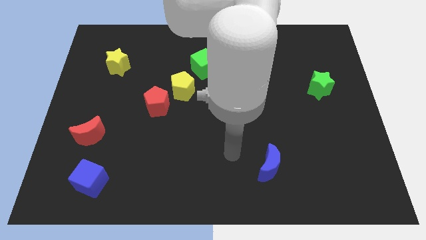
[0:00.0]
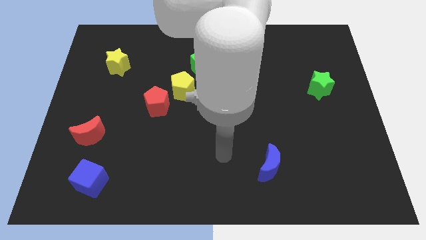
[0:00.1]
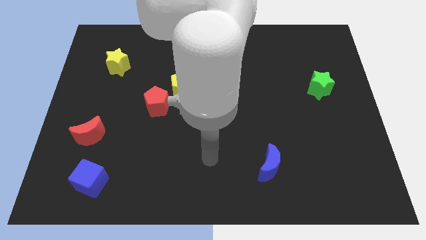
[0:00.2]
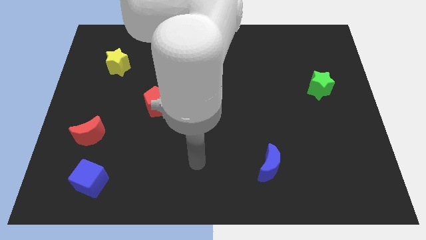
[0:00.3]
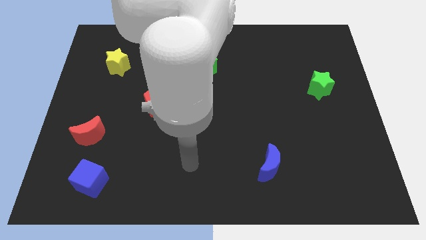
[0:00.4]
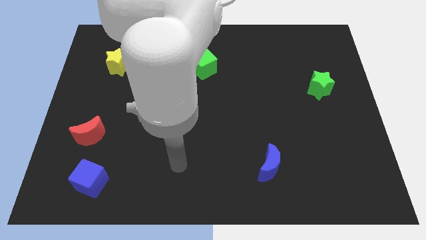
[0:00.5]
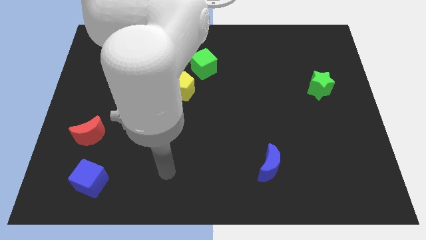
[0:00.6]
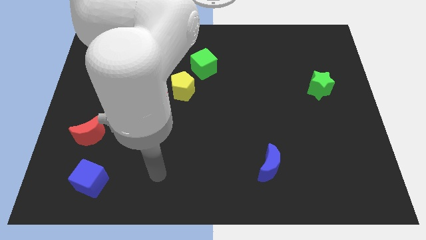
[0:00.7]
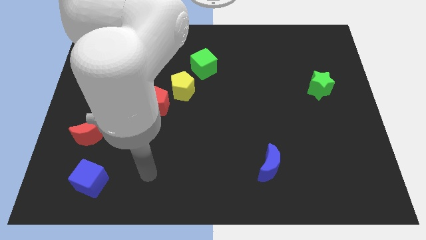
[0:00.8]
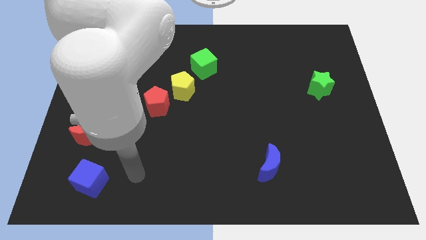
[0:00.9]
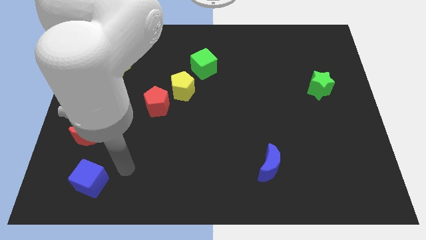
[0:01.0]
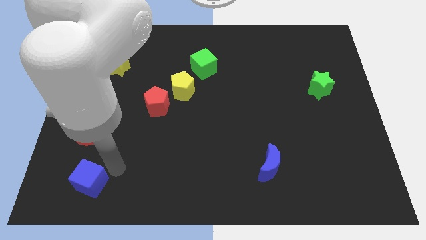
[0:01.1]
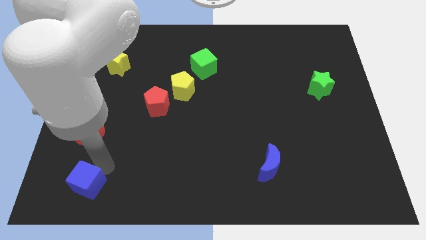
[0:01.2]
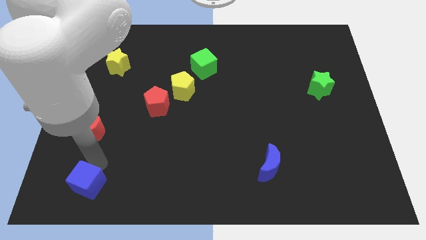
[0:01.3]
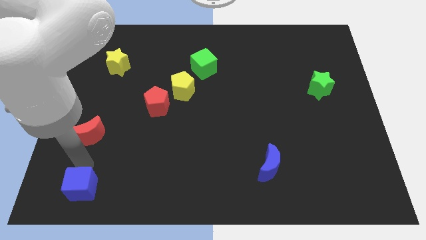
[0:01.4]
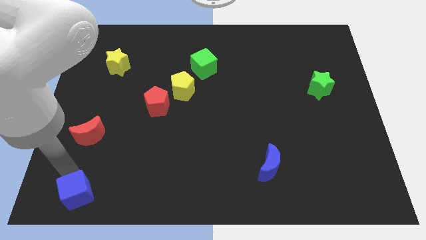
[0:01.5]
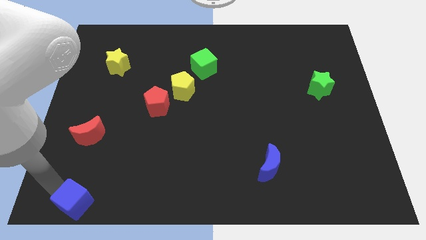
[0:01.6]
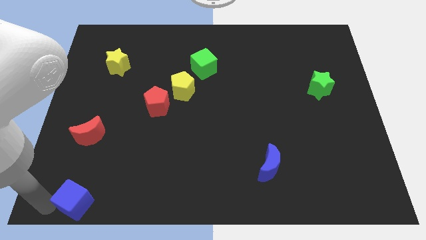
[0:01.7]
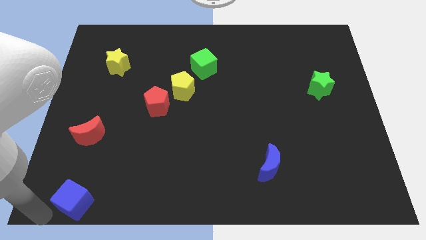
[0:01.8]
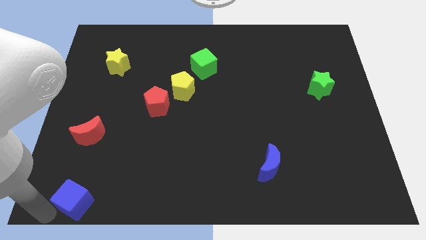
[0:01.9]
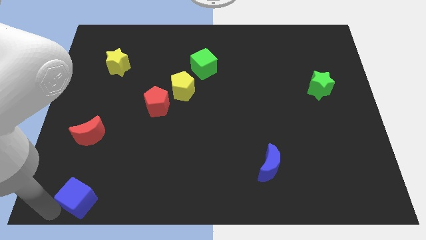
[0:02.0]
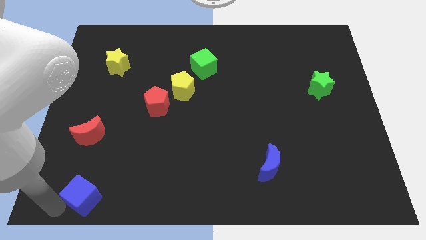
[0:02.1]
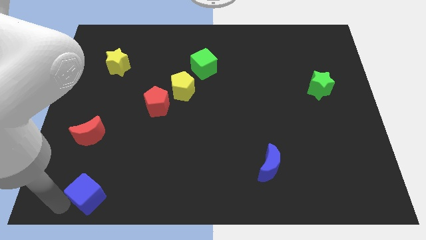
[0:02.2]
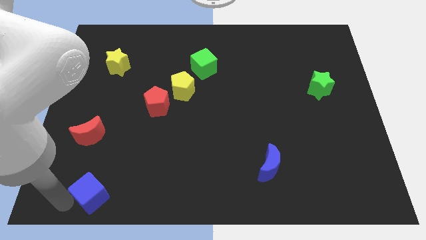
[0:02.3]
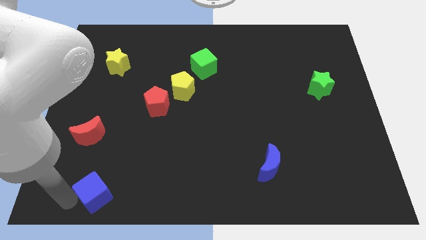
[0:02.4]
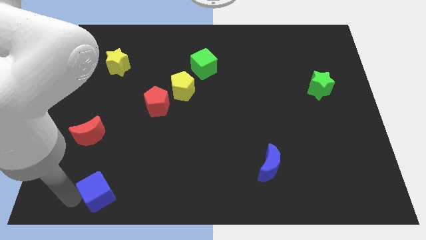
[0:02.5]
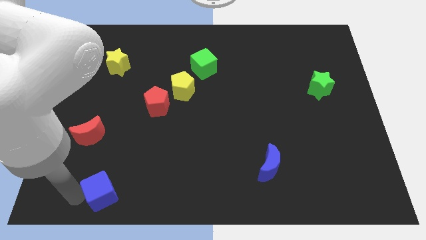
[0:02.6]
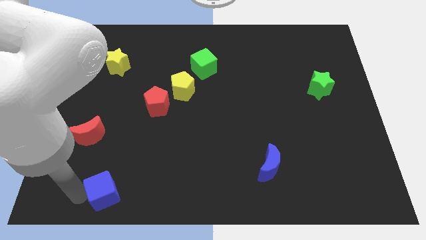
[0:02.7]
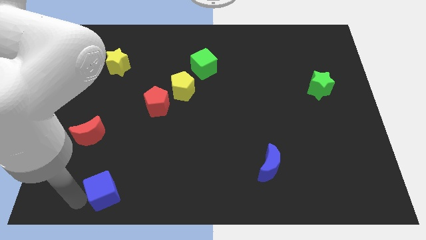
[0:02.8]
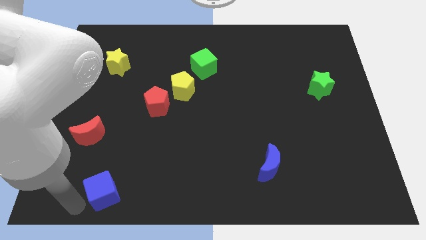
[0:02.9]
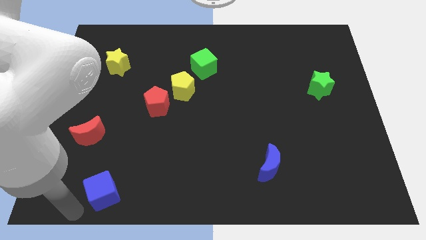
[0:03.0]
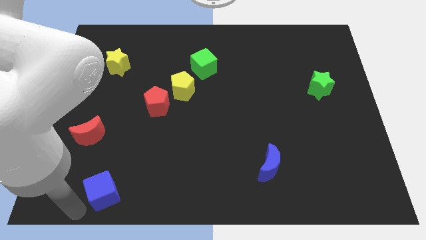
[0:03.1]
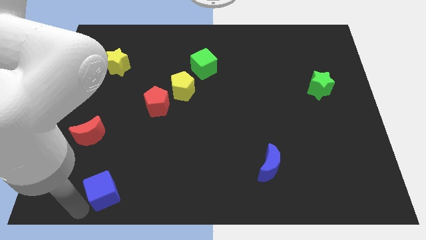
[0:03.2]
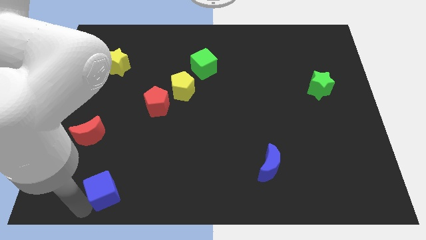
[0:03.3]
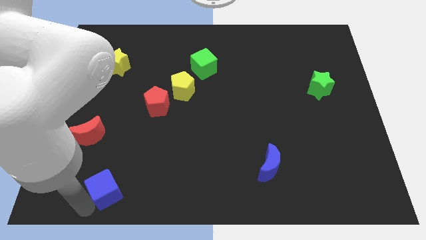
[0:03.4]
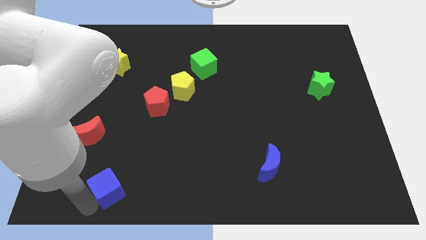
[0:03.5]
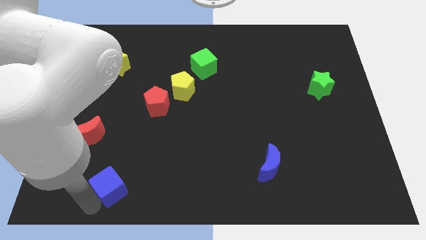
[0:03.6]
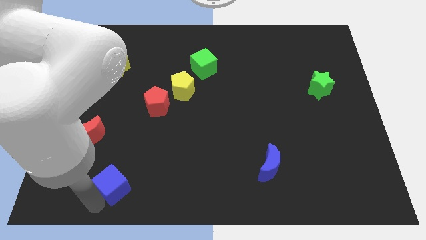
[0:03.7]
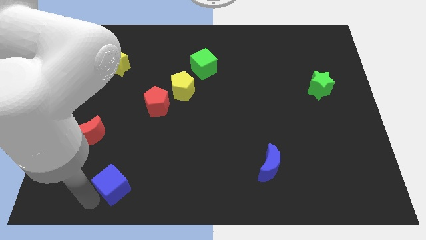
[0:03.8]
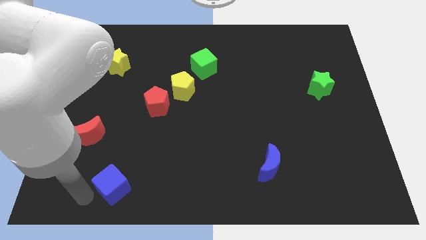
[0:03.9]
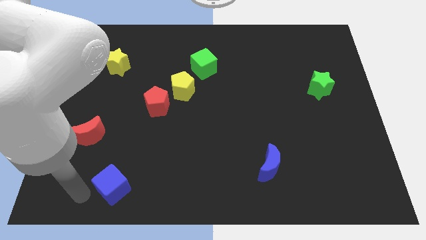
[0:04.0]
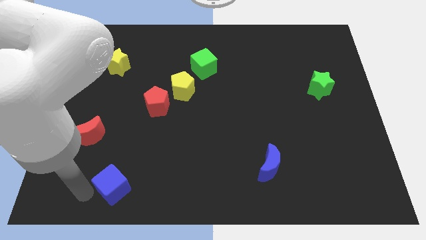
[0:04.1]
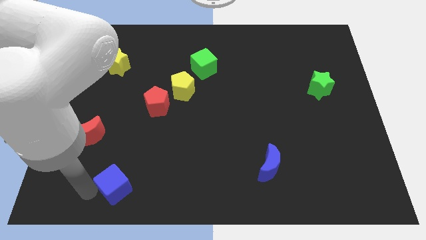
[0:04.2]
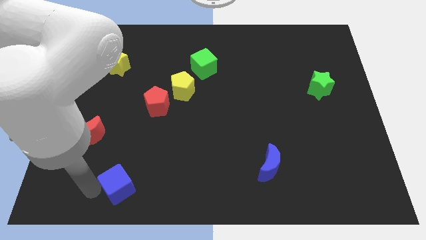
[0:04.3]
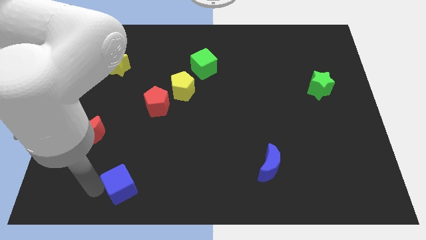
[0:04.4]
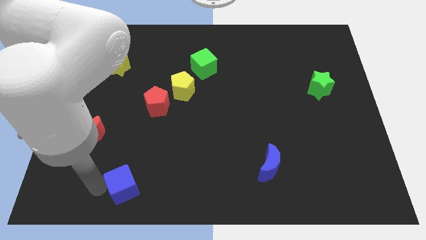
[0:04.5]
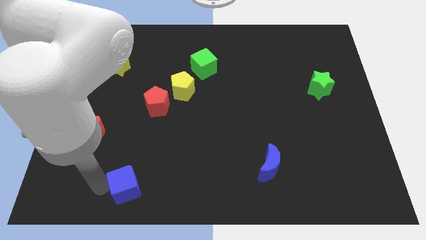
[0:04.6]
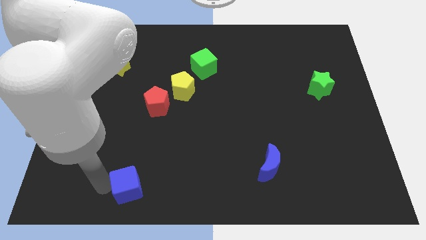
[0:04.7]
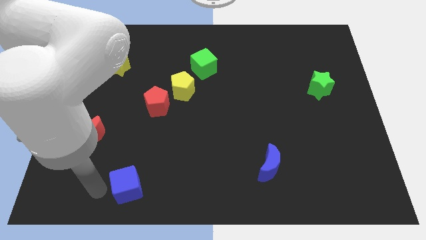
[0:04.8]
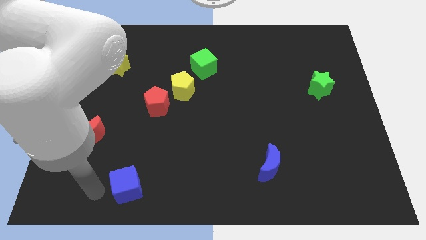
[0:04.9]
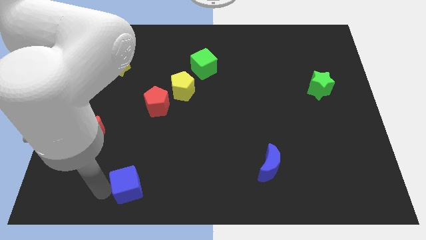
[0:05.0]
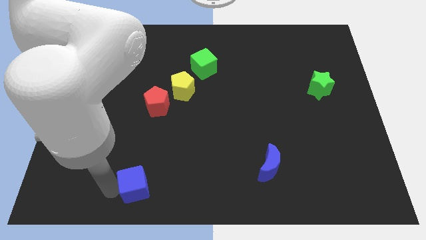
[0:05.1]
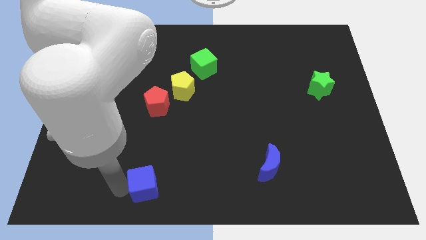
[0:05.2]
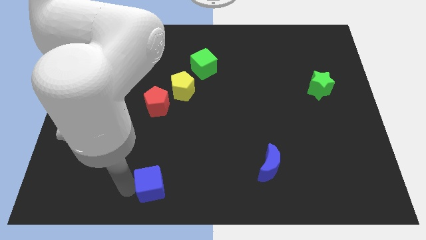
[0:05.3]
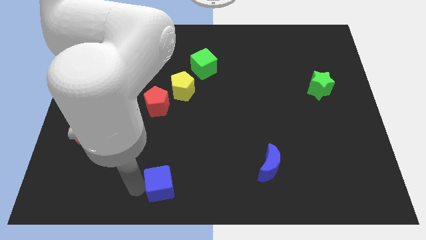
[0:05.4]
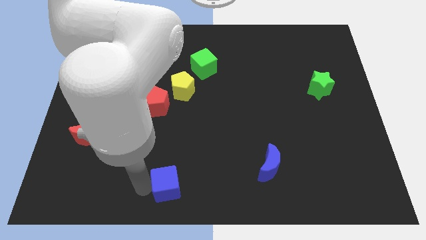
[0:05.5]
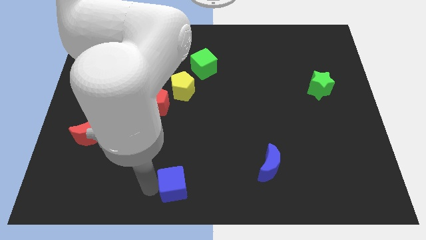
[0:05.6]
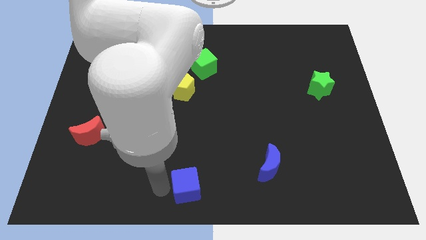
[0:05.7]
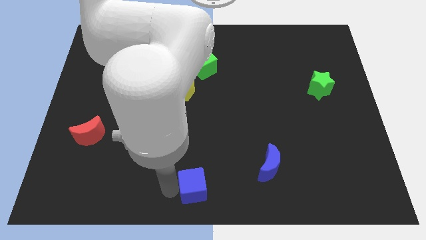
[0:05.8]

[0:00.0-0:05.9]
slide the blue cube to the right

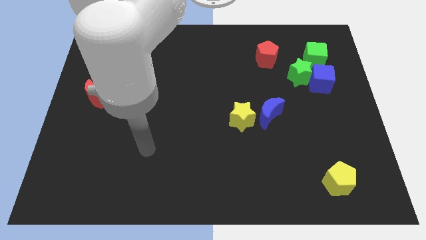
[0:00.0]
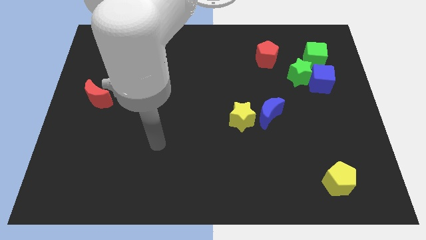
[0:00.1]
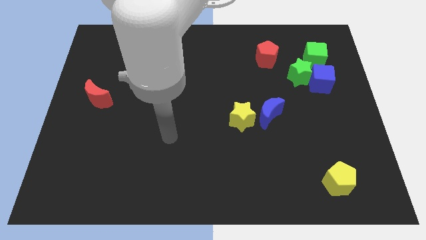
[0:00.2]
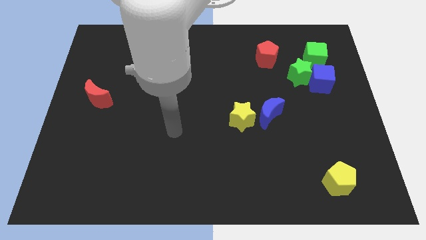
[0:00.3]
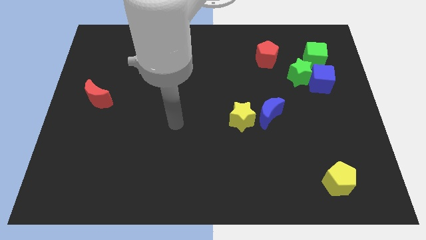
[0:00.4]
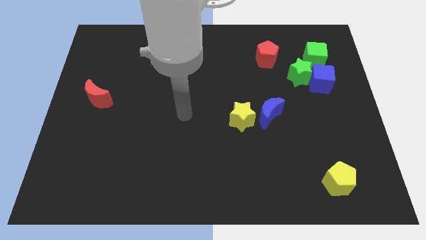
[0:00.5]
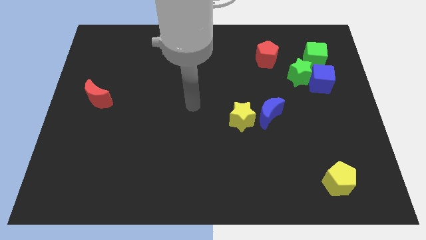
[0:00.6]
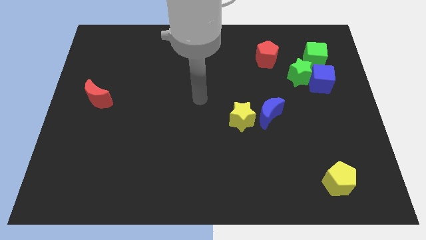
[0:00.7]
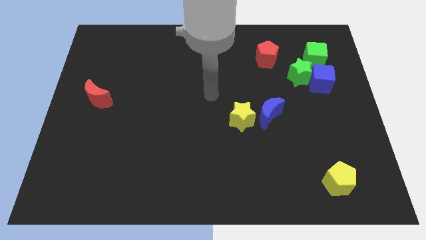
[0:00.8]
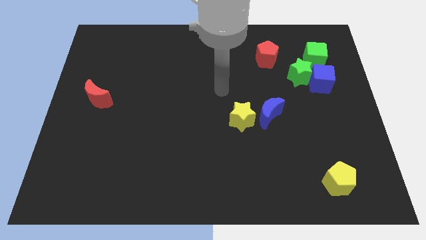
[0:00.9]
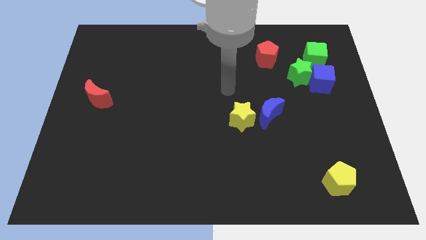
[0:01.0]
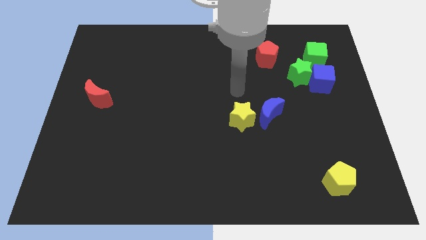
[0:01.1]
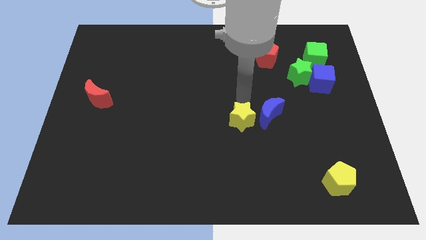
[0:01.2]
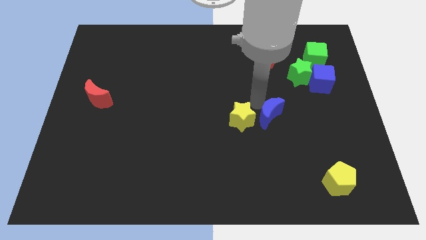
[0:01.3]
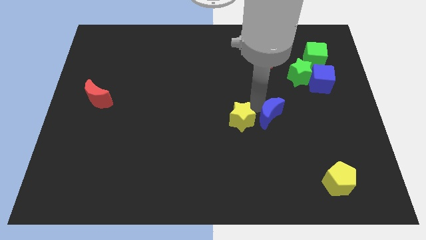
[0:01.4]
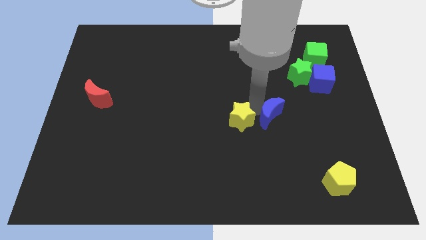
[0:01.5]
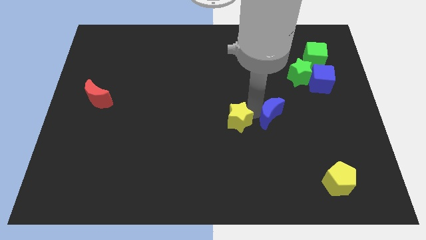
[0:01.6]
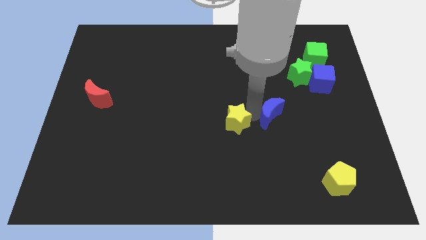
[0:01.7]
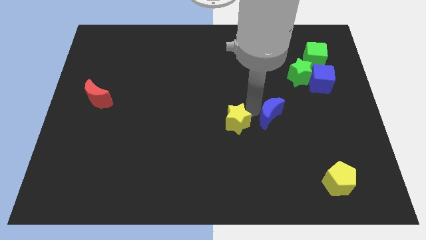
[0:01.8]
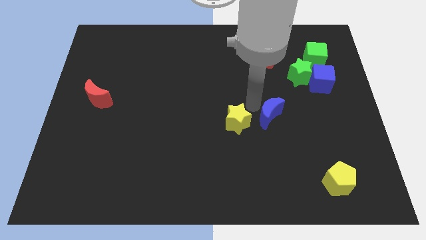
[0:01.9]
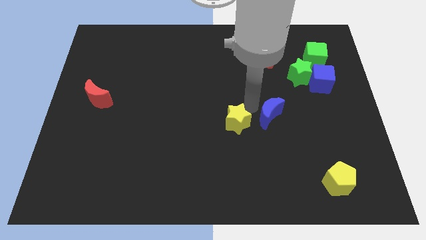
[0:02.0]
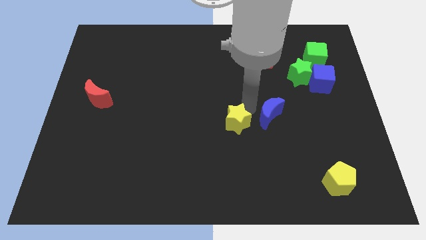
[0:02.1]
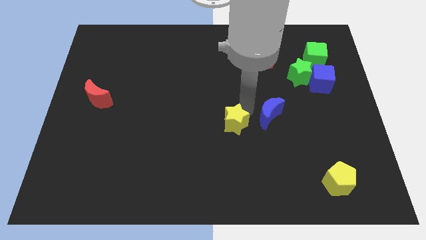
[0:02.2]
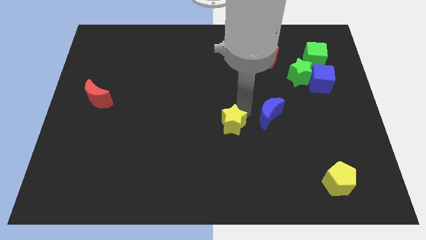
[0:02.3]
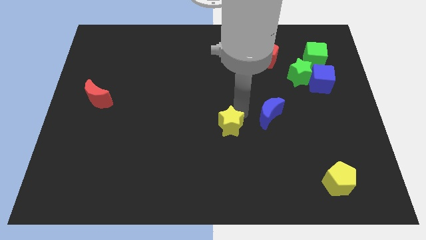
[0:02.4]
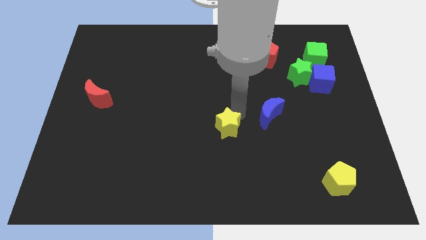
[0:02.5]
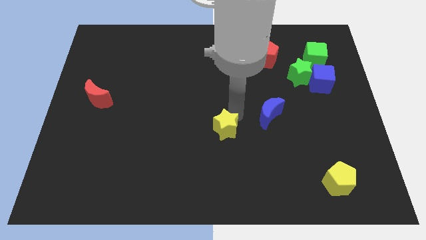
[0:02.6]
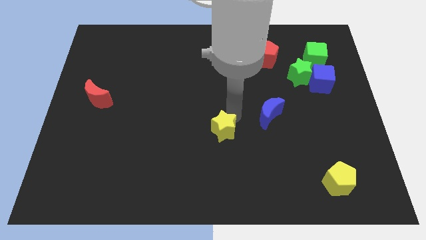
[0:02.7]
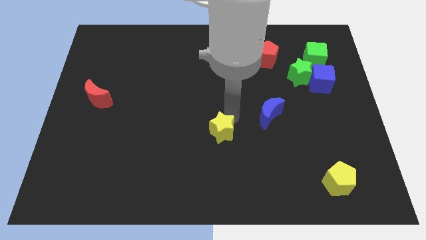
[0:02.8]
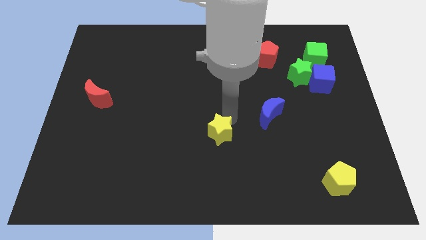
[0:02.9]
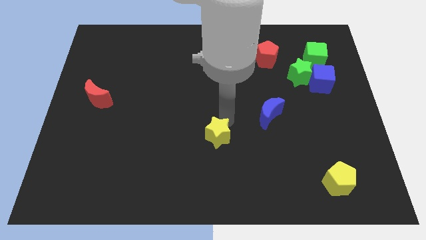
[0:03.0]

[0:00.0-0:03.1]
slide the yellow star slightly diagonally downwards and left
